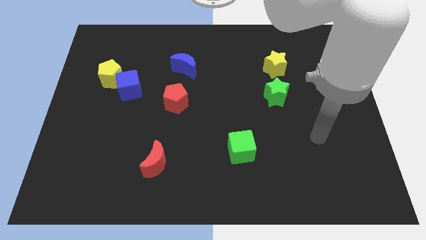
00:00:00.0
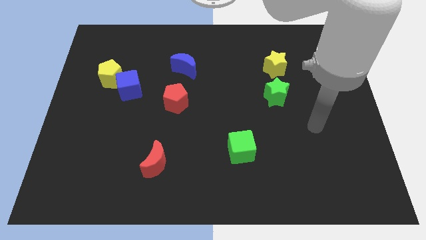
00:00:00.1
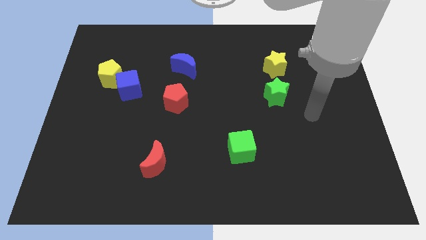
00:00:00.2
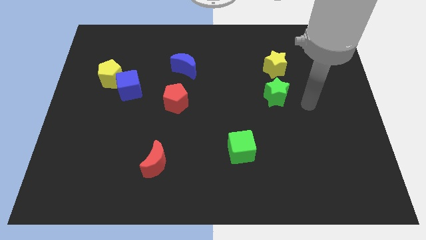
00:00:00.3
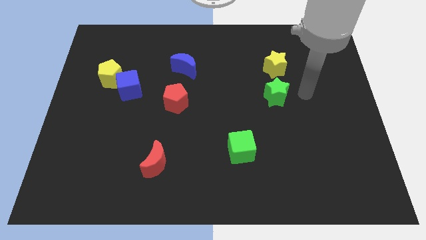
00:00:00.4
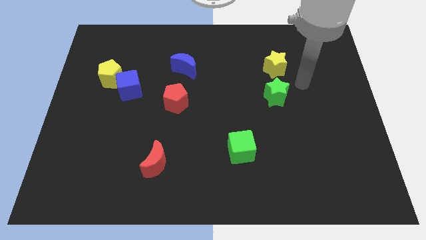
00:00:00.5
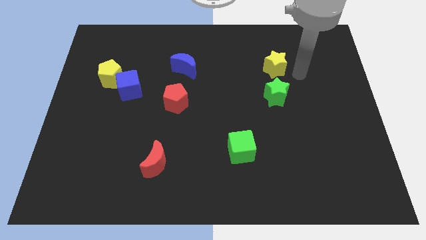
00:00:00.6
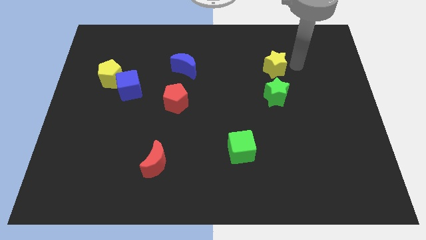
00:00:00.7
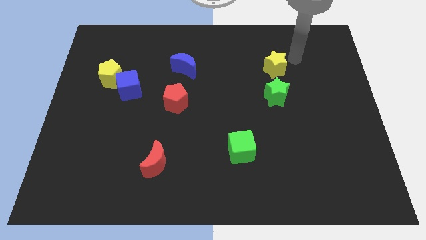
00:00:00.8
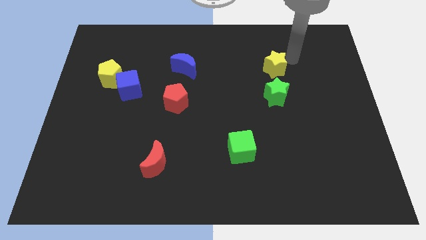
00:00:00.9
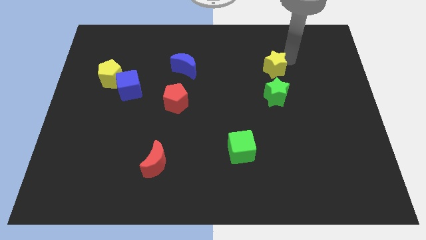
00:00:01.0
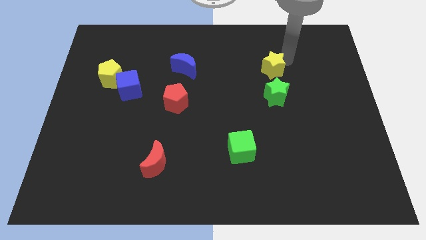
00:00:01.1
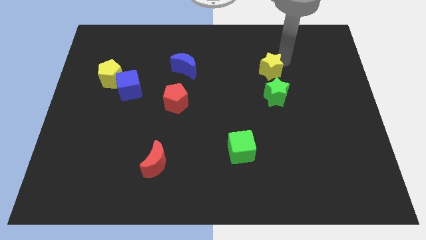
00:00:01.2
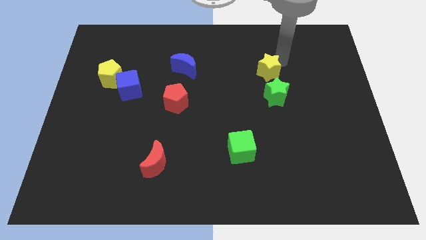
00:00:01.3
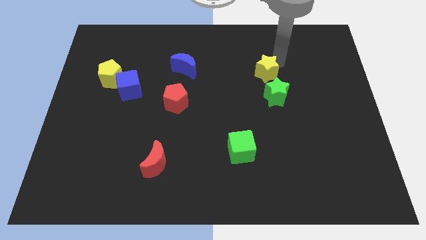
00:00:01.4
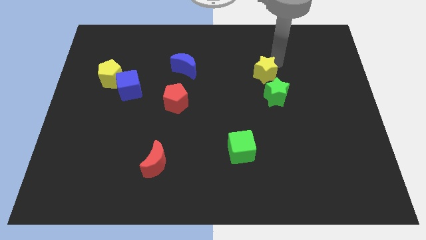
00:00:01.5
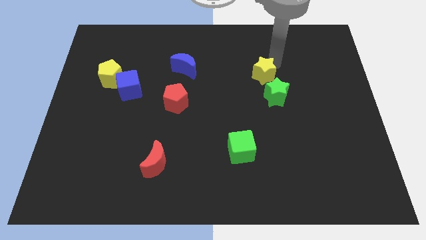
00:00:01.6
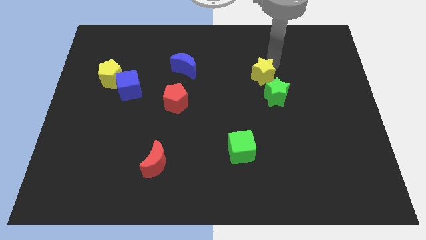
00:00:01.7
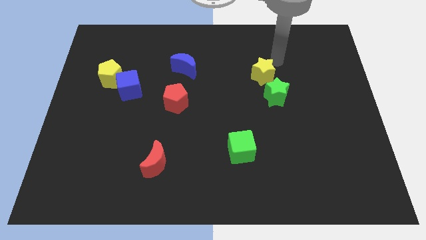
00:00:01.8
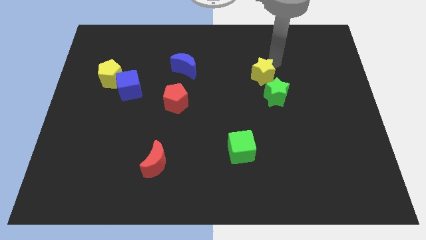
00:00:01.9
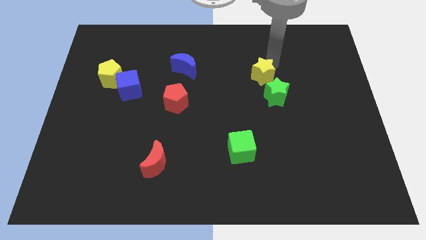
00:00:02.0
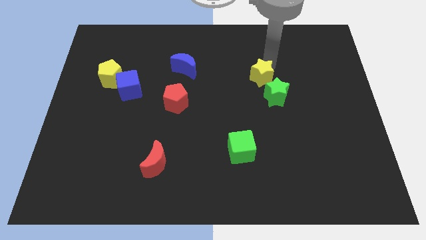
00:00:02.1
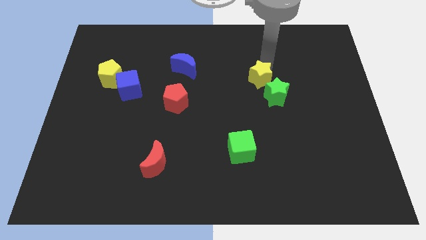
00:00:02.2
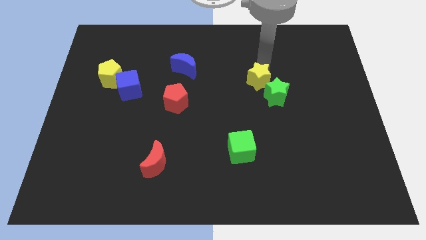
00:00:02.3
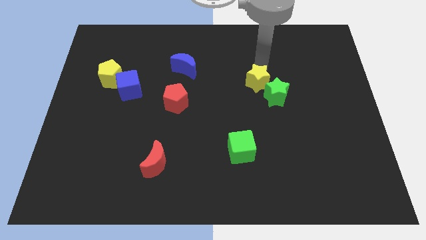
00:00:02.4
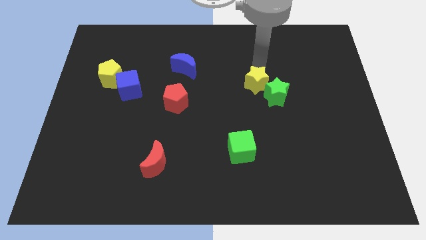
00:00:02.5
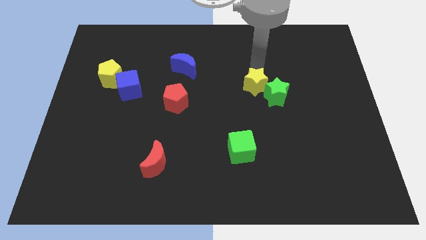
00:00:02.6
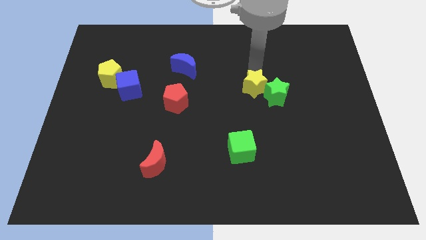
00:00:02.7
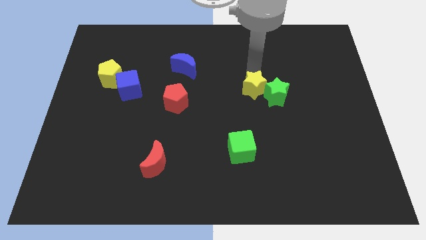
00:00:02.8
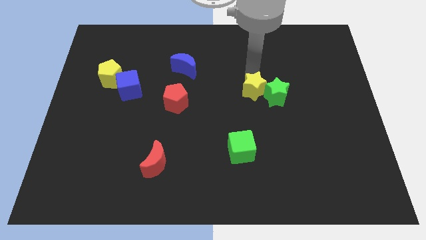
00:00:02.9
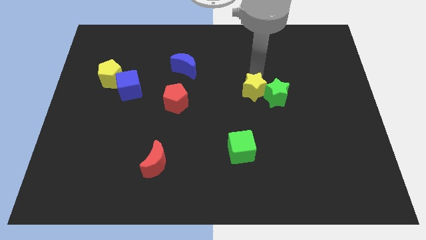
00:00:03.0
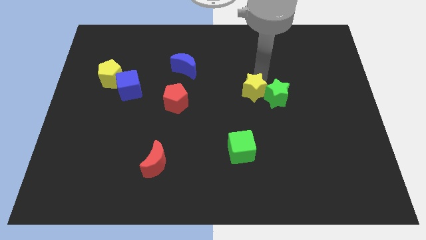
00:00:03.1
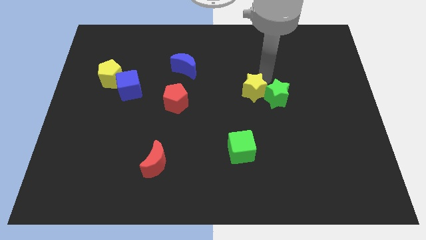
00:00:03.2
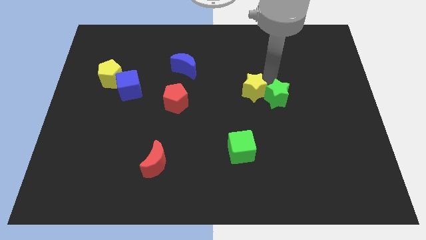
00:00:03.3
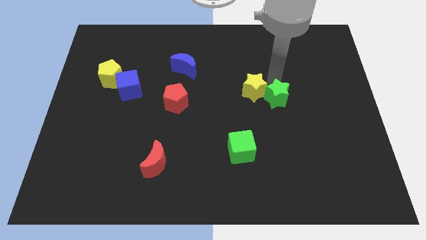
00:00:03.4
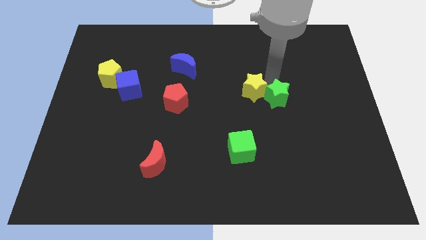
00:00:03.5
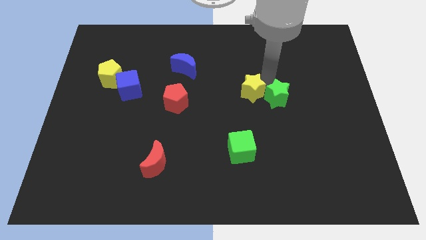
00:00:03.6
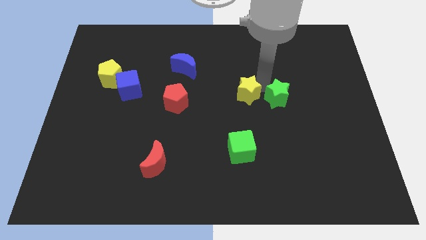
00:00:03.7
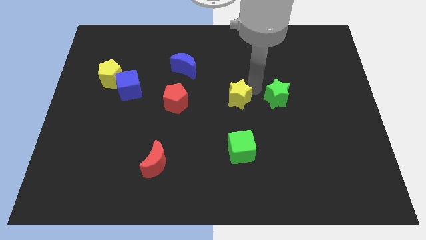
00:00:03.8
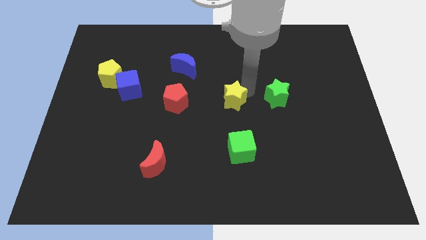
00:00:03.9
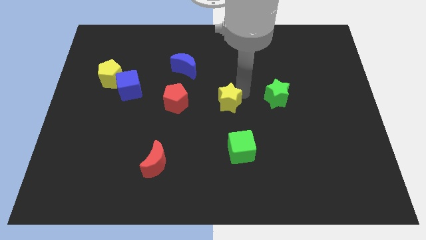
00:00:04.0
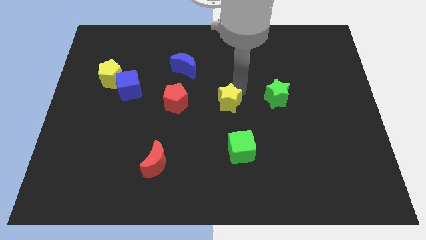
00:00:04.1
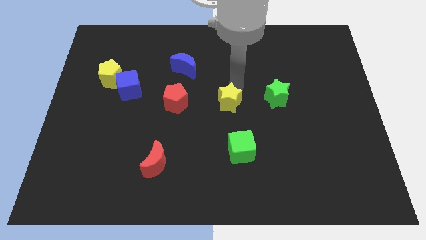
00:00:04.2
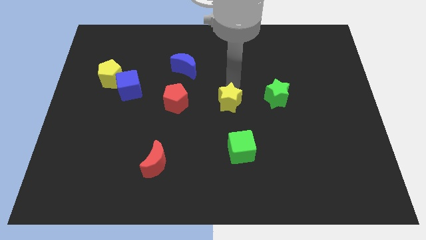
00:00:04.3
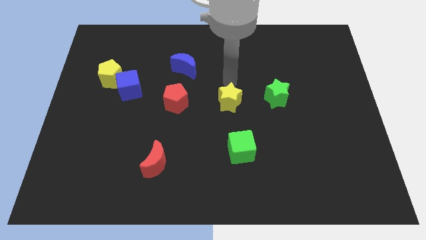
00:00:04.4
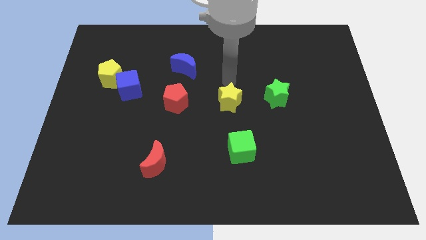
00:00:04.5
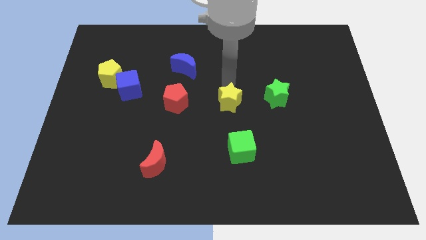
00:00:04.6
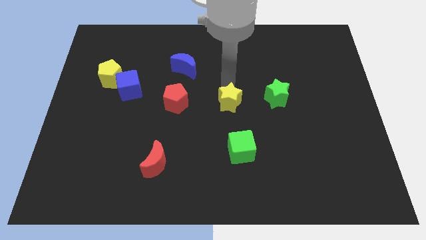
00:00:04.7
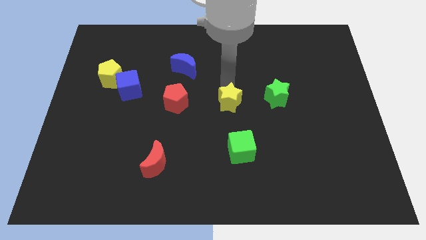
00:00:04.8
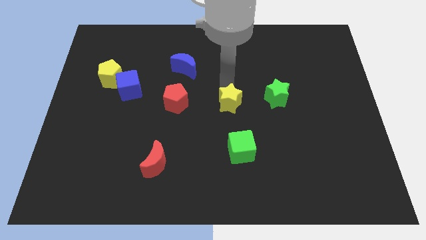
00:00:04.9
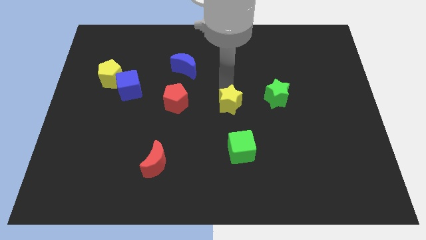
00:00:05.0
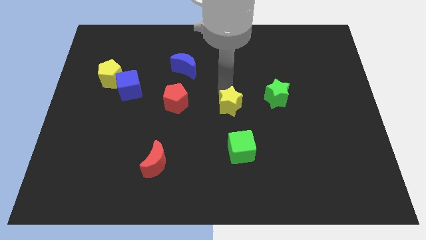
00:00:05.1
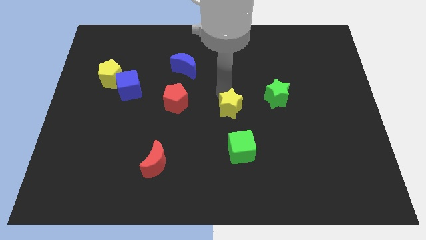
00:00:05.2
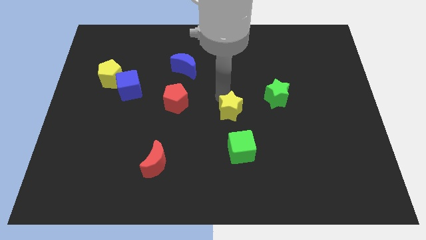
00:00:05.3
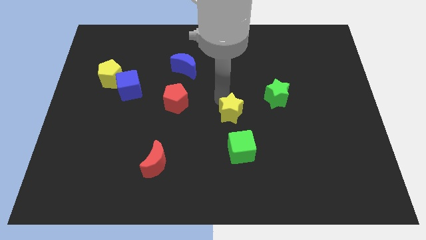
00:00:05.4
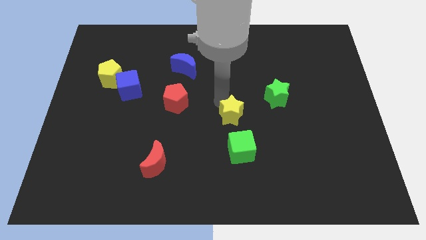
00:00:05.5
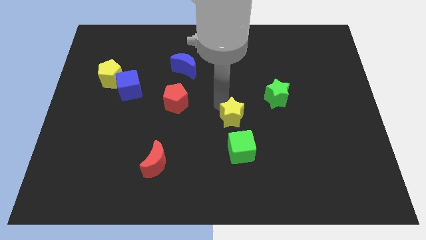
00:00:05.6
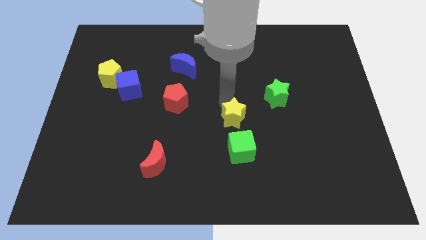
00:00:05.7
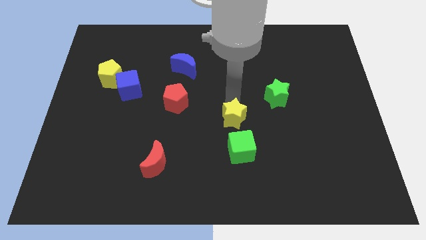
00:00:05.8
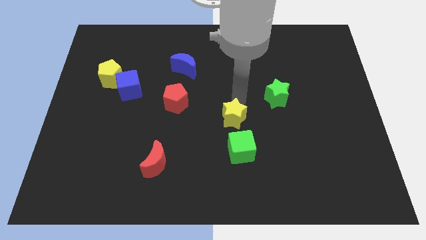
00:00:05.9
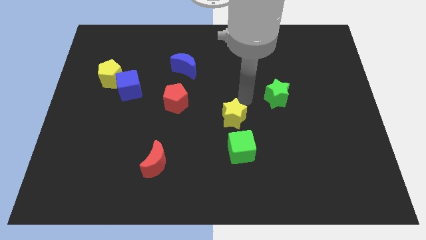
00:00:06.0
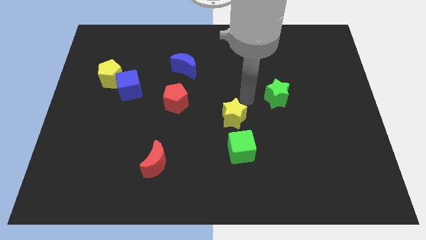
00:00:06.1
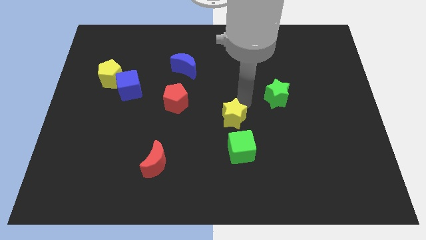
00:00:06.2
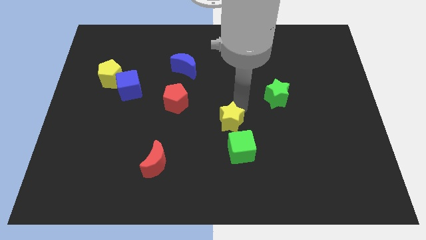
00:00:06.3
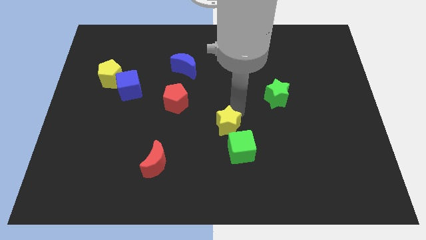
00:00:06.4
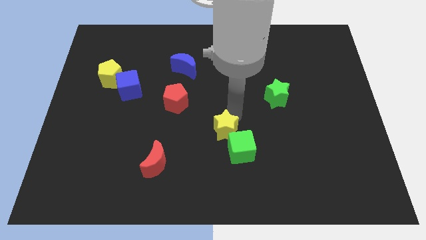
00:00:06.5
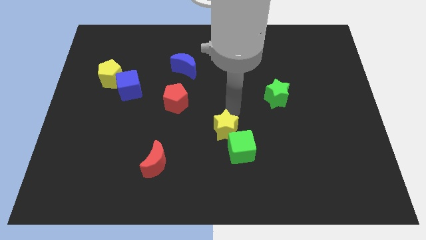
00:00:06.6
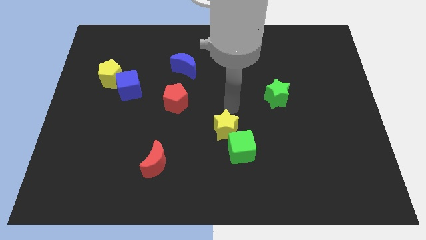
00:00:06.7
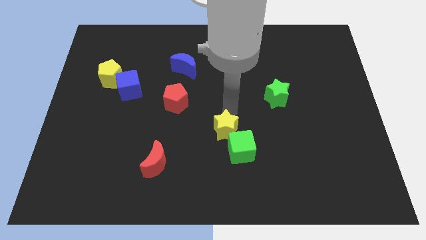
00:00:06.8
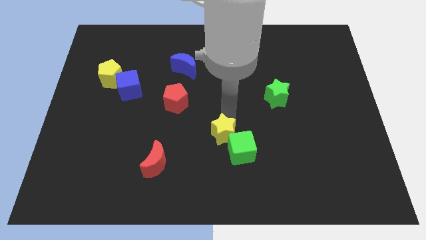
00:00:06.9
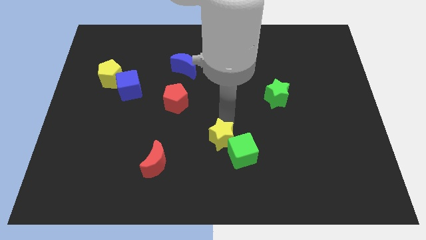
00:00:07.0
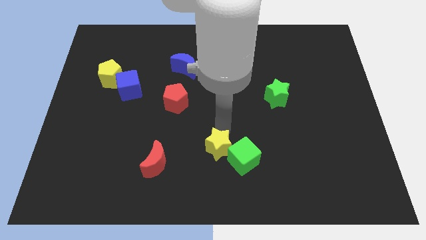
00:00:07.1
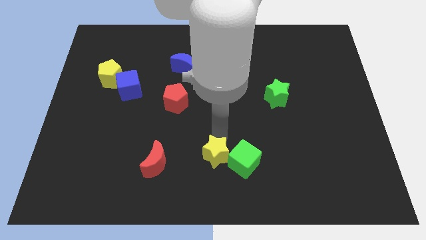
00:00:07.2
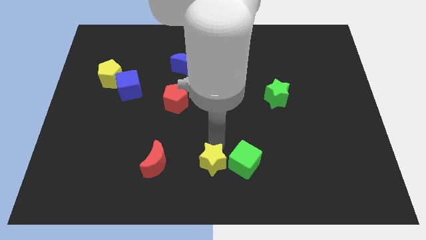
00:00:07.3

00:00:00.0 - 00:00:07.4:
put the yellow star to the bottom left side of the green cube

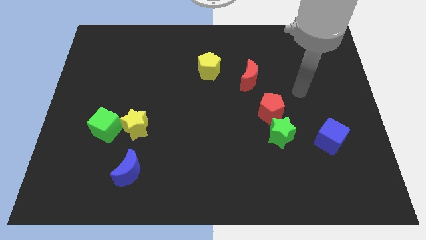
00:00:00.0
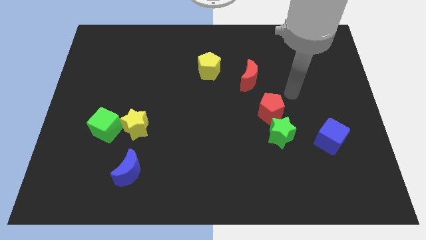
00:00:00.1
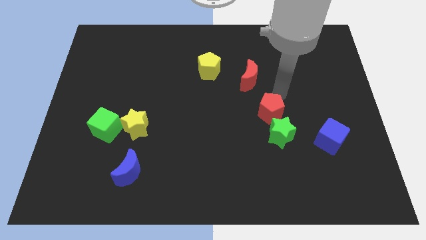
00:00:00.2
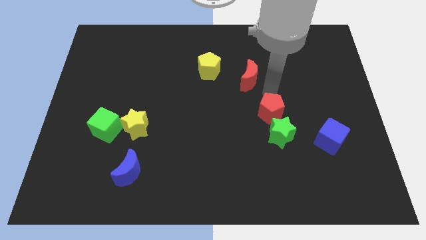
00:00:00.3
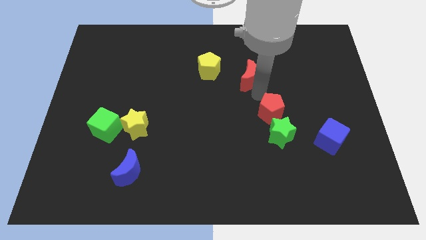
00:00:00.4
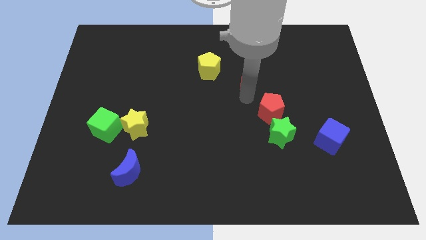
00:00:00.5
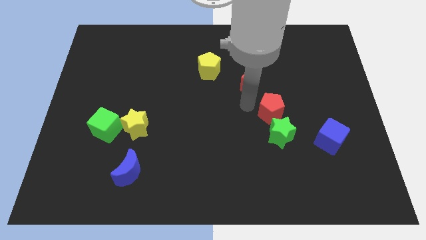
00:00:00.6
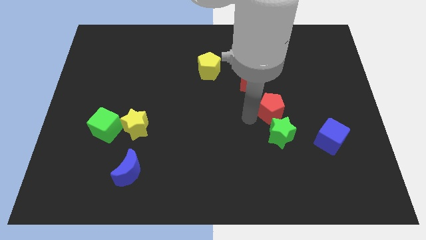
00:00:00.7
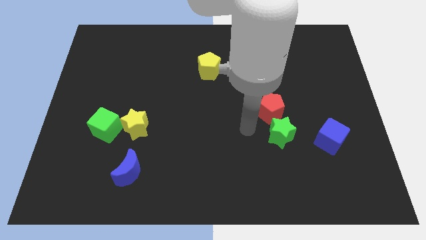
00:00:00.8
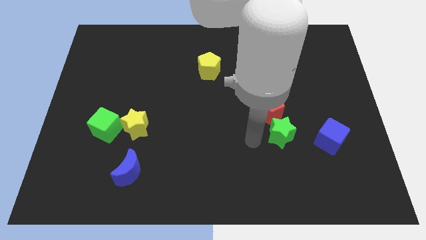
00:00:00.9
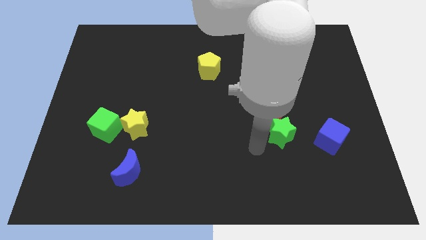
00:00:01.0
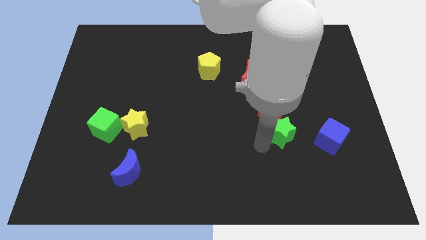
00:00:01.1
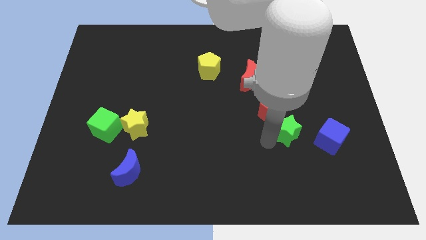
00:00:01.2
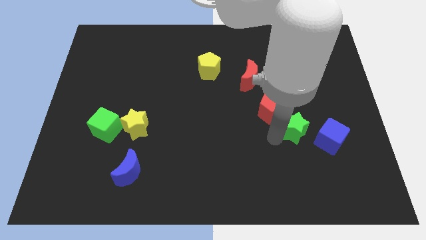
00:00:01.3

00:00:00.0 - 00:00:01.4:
slide the green star to the top left side of the blue cube
